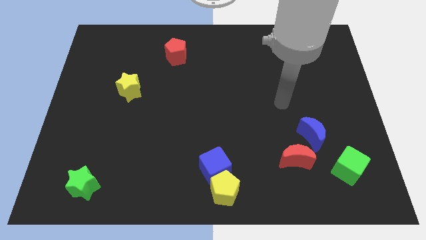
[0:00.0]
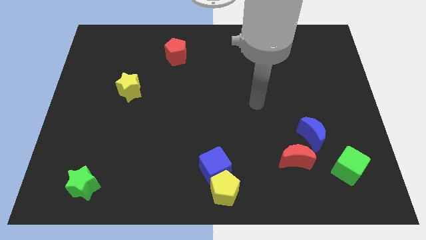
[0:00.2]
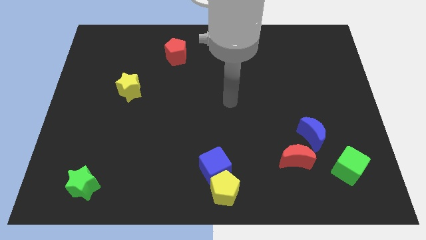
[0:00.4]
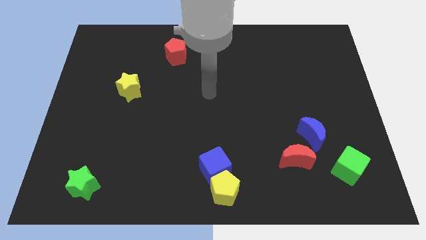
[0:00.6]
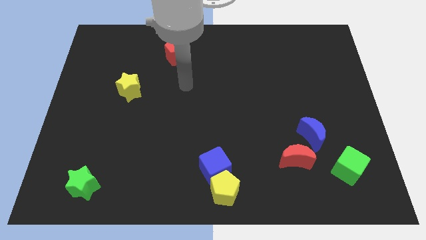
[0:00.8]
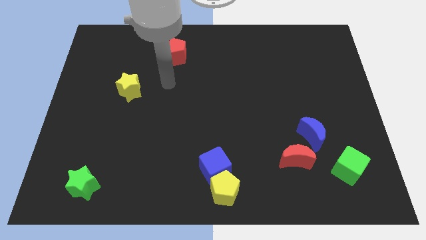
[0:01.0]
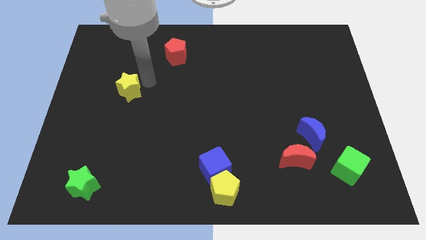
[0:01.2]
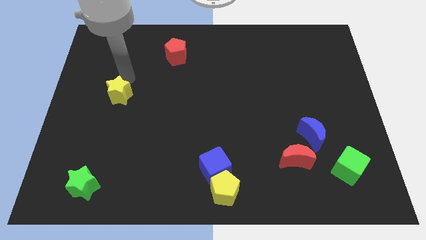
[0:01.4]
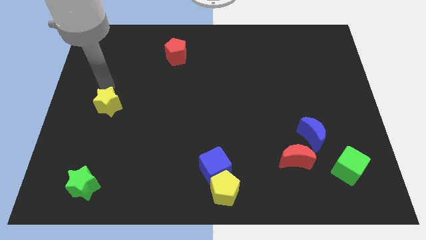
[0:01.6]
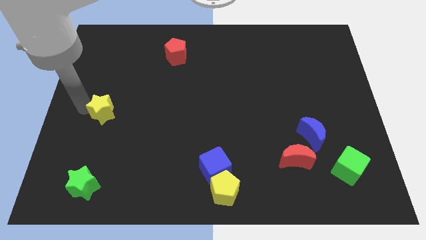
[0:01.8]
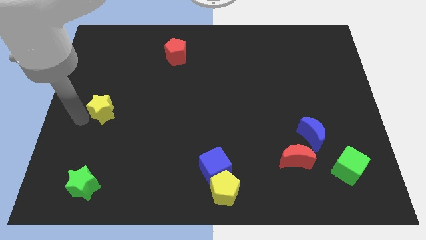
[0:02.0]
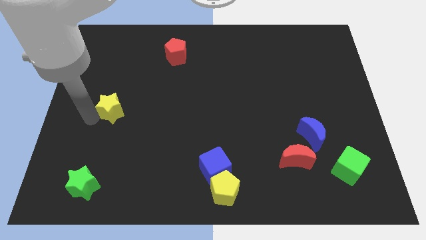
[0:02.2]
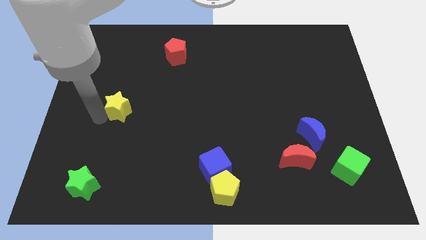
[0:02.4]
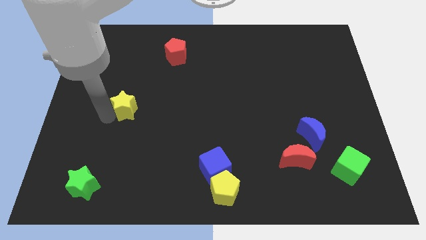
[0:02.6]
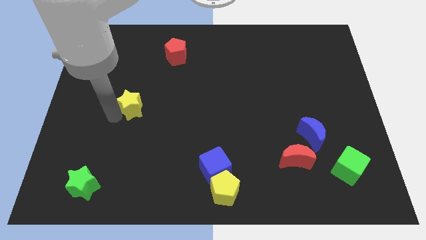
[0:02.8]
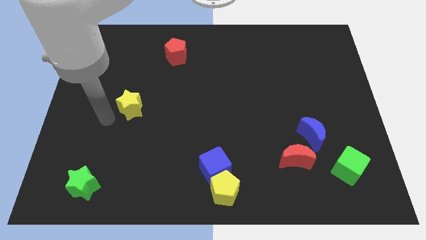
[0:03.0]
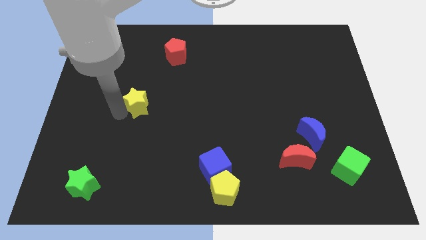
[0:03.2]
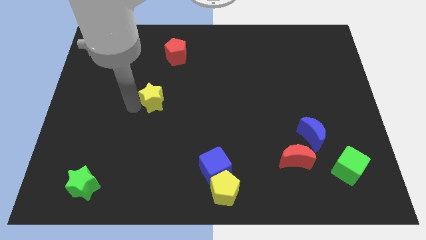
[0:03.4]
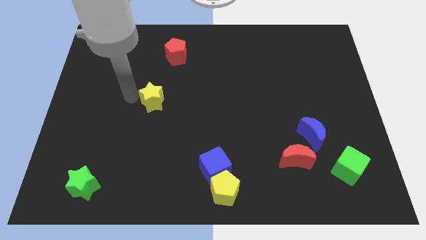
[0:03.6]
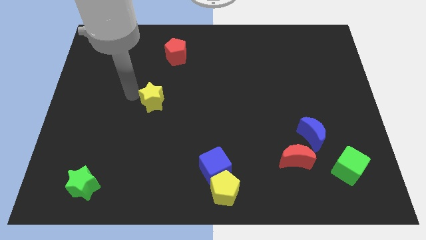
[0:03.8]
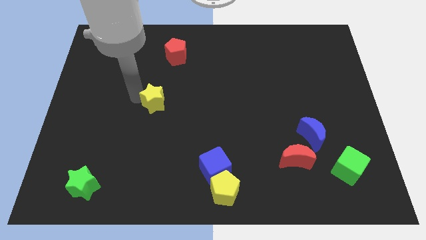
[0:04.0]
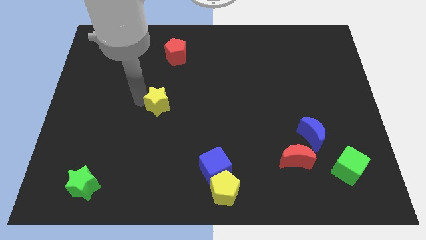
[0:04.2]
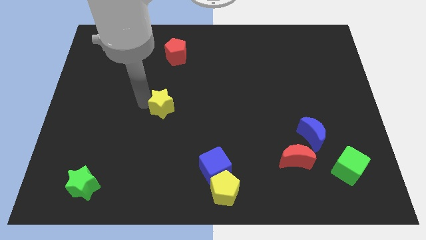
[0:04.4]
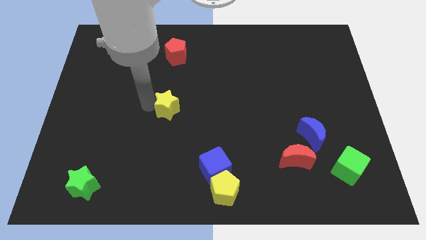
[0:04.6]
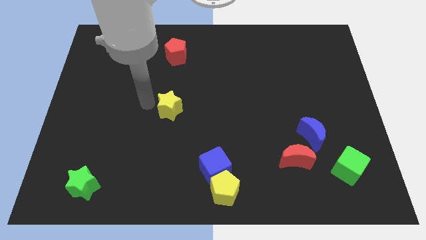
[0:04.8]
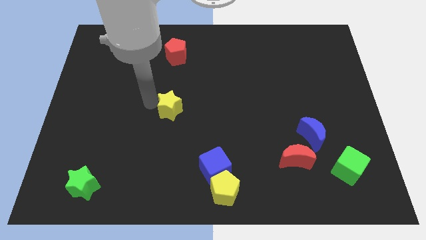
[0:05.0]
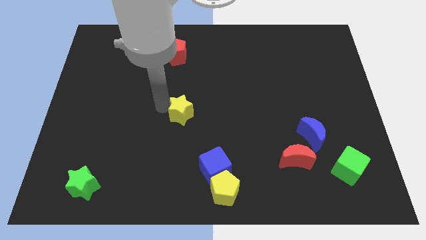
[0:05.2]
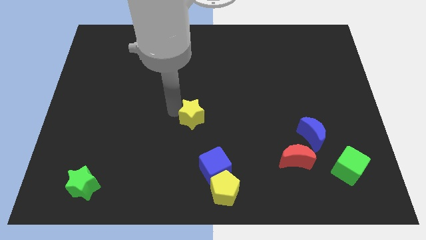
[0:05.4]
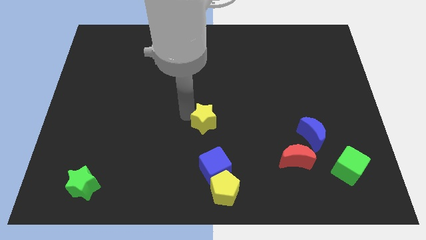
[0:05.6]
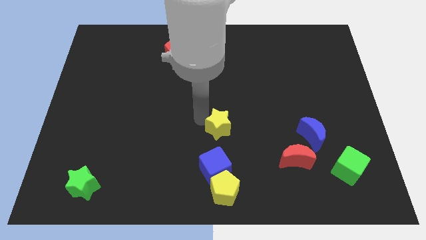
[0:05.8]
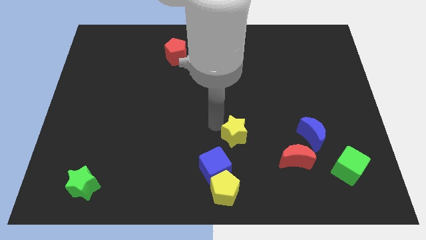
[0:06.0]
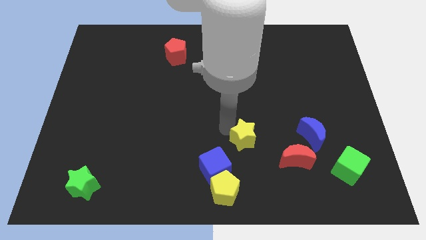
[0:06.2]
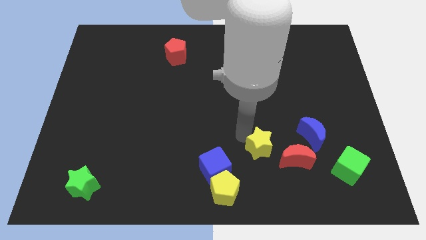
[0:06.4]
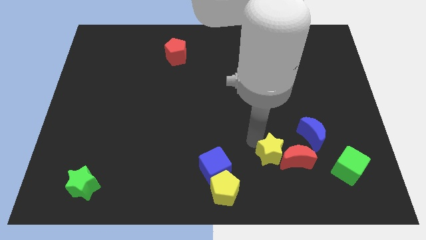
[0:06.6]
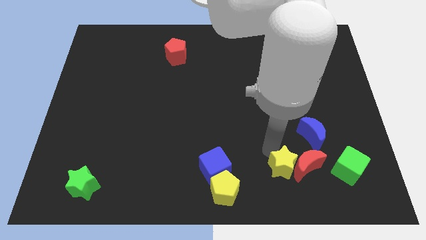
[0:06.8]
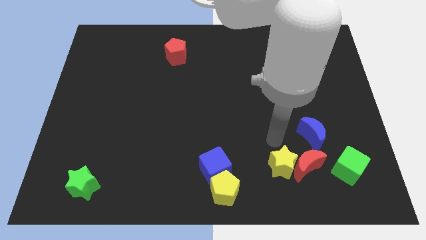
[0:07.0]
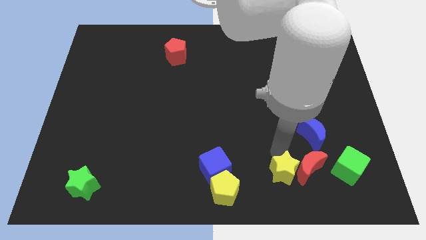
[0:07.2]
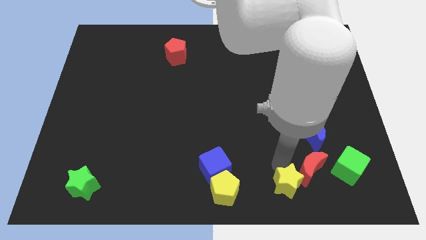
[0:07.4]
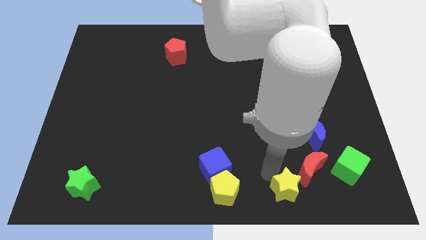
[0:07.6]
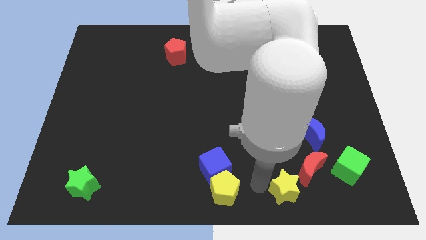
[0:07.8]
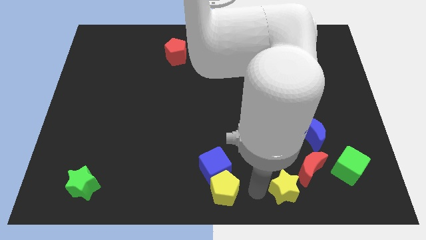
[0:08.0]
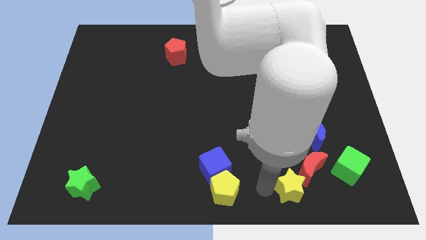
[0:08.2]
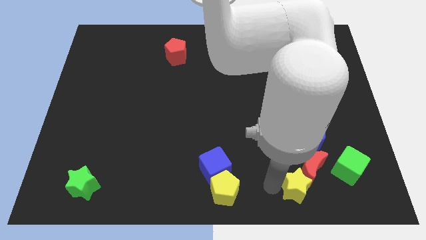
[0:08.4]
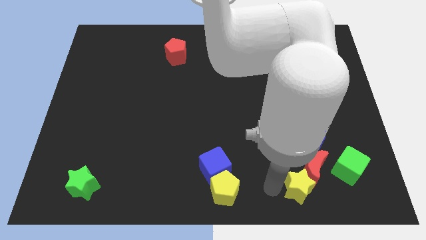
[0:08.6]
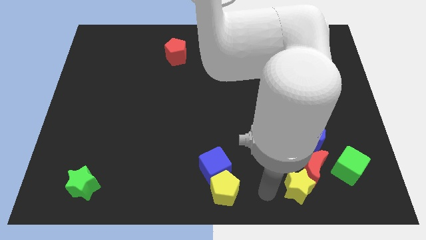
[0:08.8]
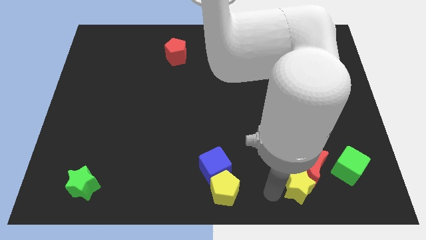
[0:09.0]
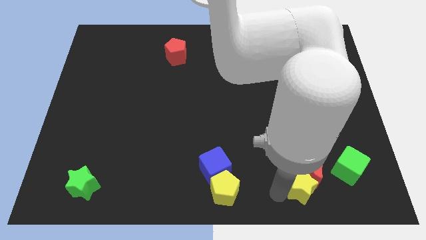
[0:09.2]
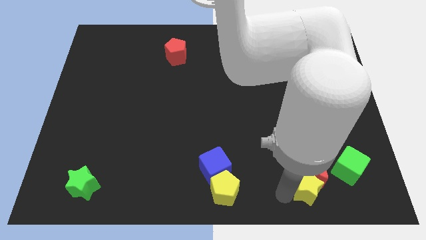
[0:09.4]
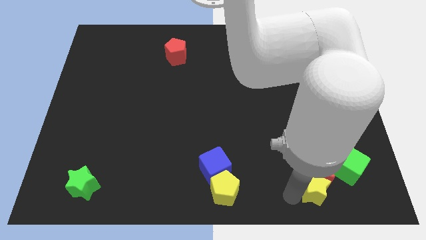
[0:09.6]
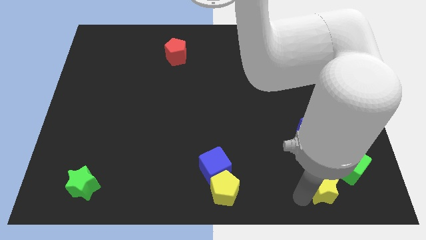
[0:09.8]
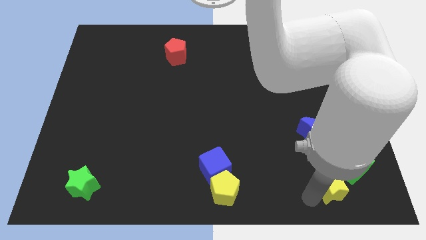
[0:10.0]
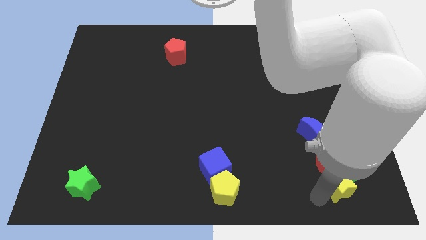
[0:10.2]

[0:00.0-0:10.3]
put the yellow star to the green cube

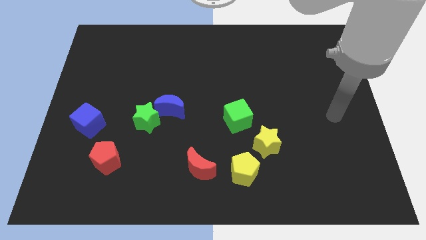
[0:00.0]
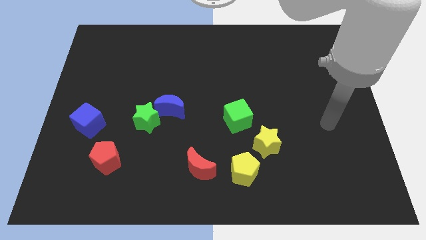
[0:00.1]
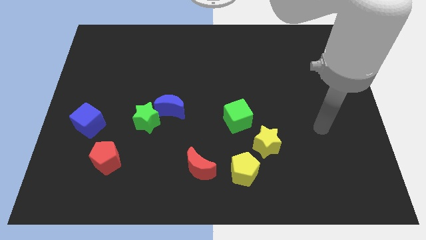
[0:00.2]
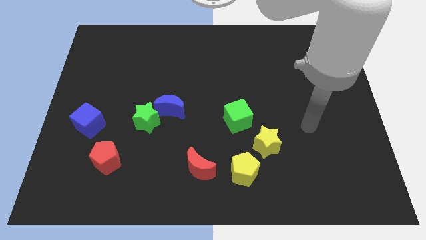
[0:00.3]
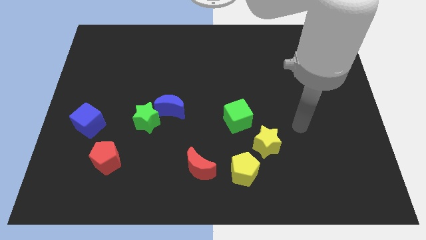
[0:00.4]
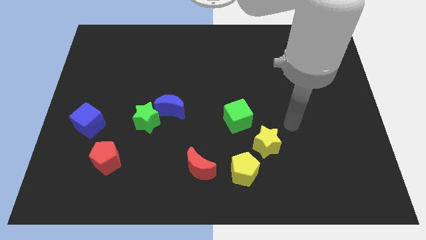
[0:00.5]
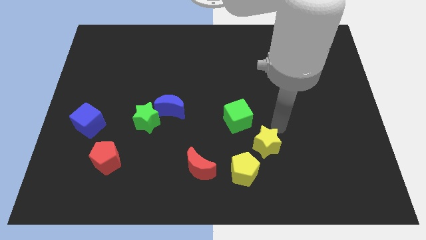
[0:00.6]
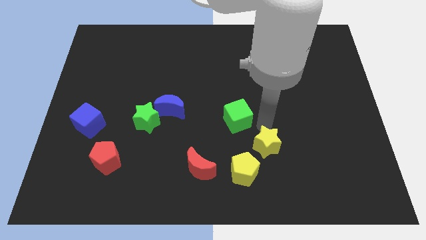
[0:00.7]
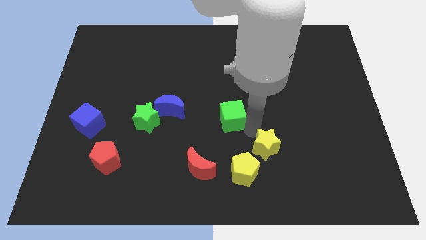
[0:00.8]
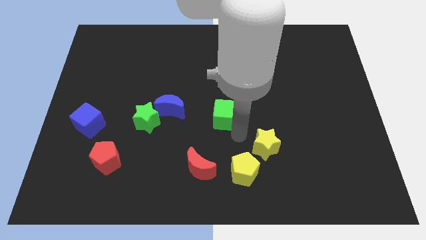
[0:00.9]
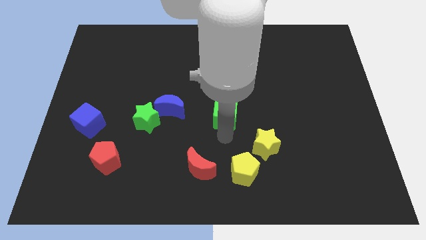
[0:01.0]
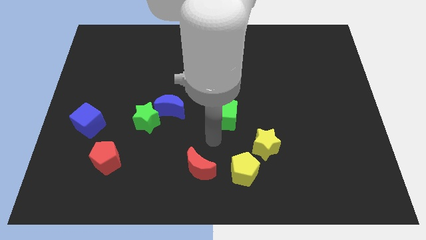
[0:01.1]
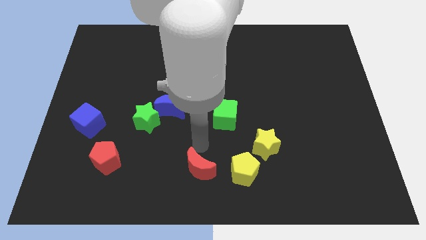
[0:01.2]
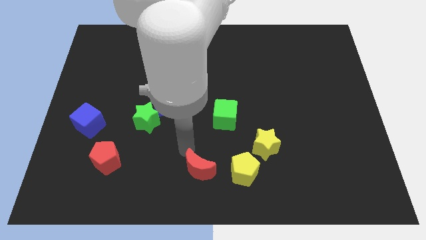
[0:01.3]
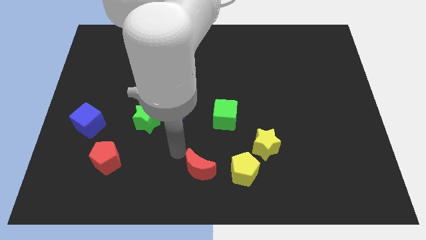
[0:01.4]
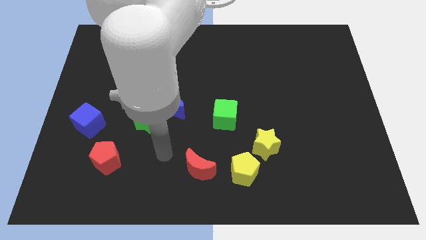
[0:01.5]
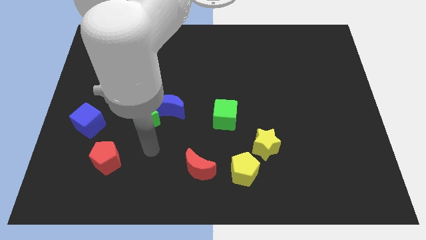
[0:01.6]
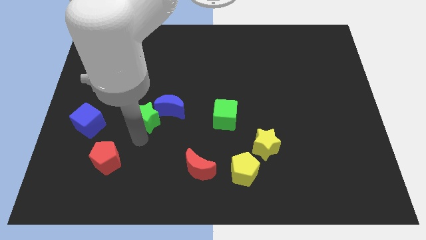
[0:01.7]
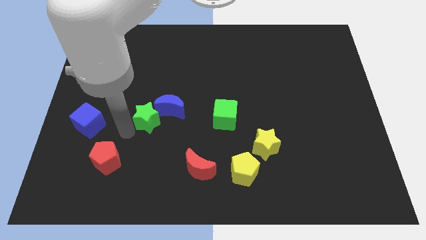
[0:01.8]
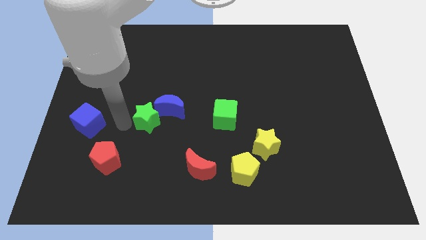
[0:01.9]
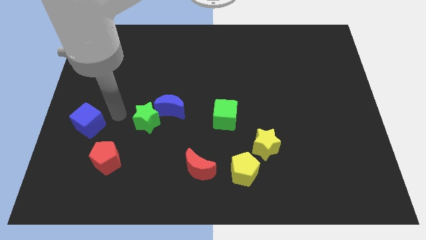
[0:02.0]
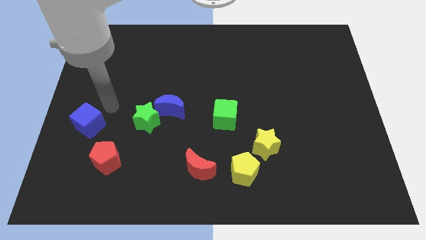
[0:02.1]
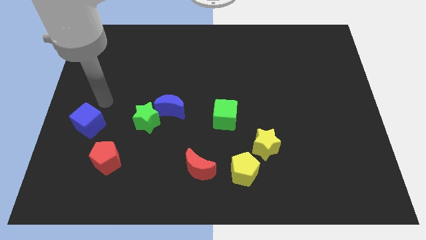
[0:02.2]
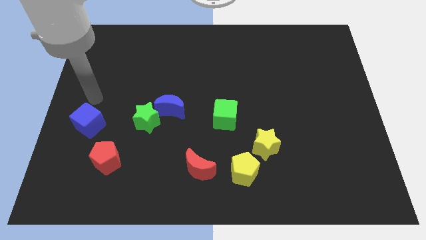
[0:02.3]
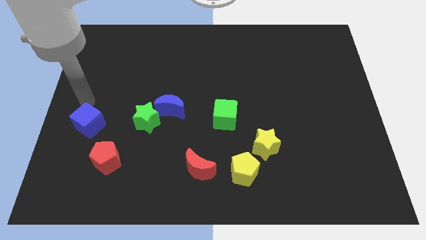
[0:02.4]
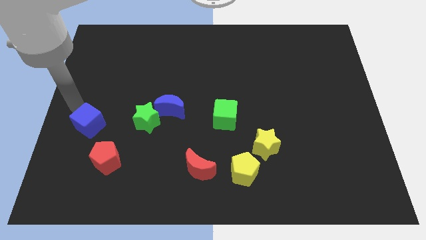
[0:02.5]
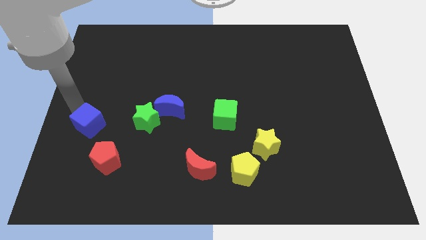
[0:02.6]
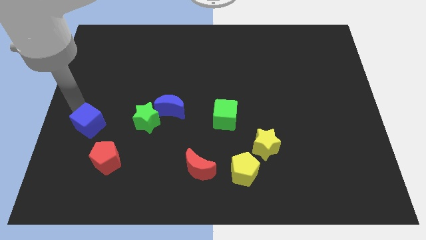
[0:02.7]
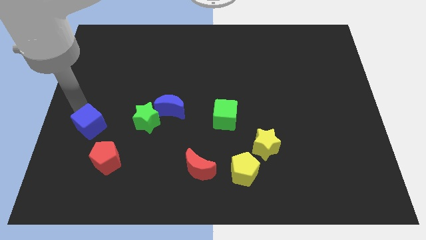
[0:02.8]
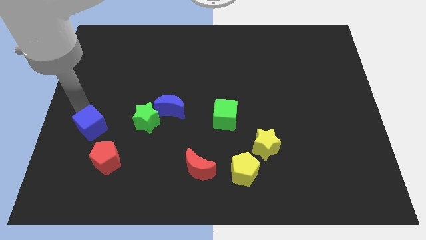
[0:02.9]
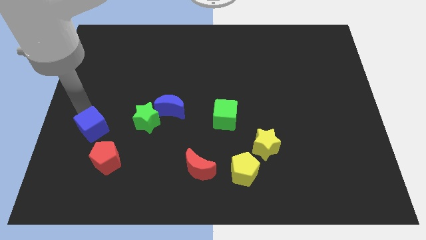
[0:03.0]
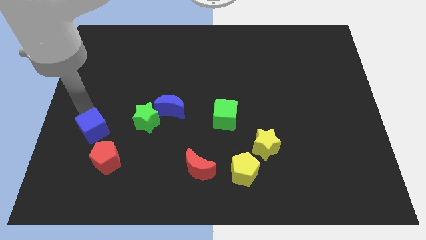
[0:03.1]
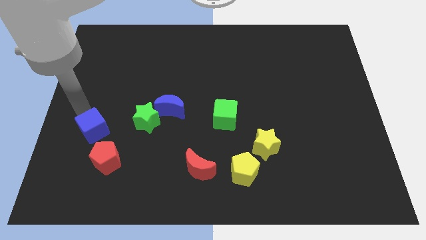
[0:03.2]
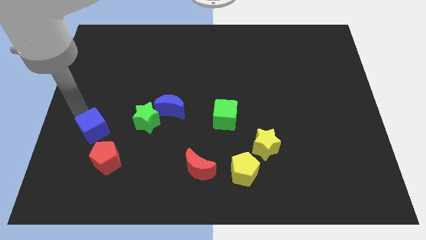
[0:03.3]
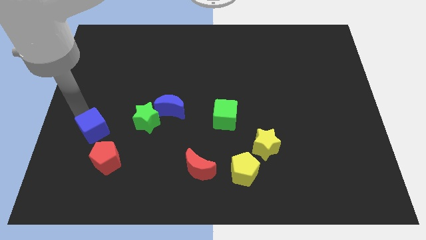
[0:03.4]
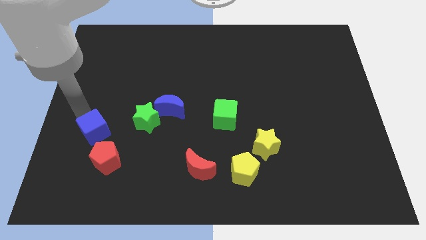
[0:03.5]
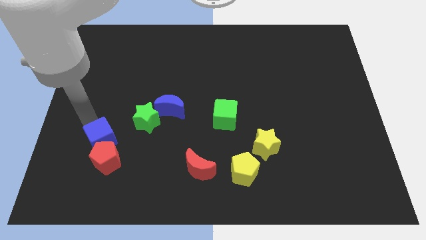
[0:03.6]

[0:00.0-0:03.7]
push the blue cube to the red pentagon
